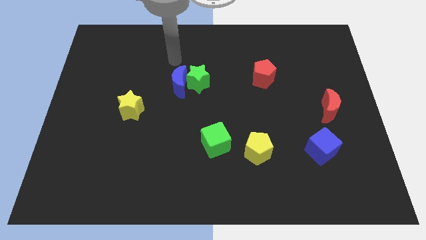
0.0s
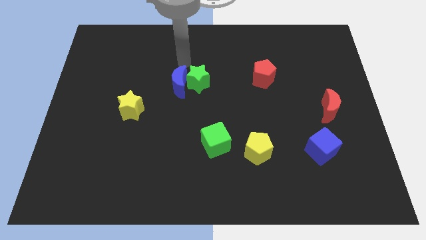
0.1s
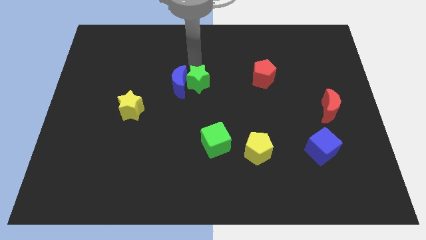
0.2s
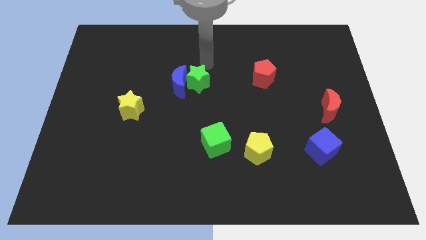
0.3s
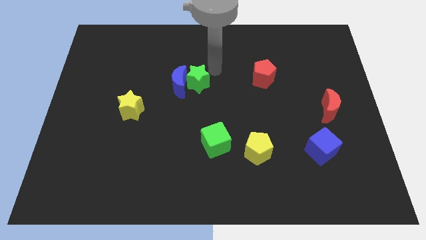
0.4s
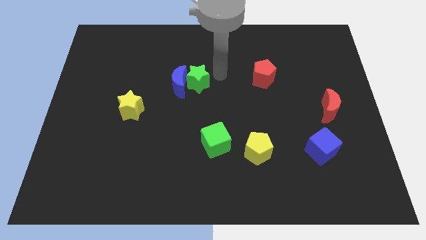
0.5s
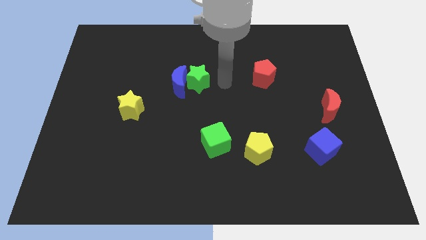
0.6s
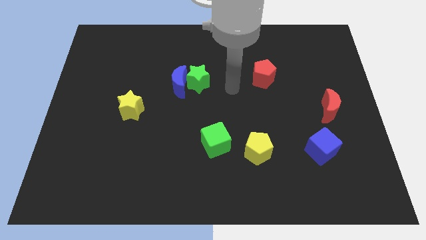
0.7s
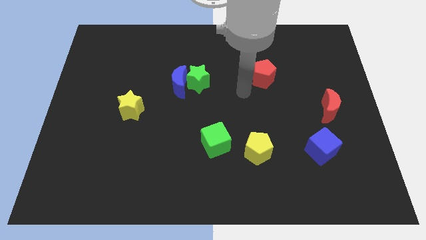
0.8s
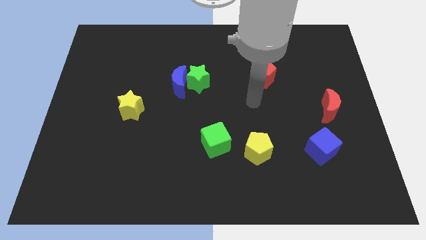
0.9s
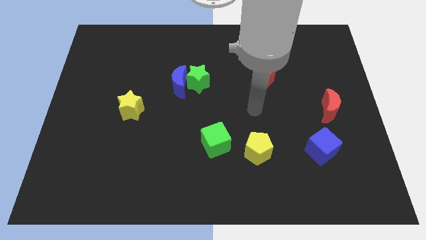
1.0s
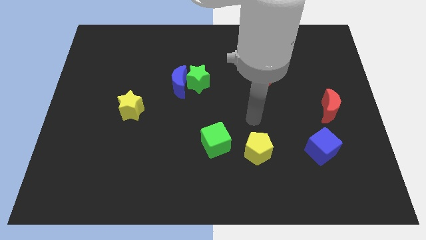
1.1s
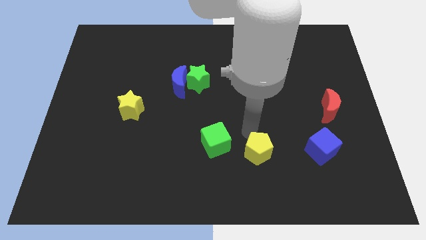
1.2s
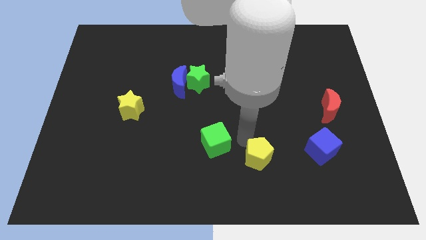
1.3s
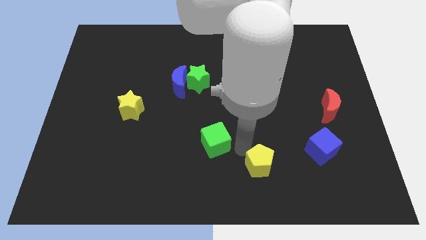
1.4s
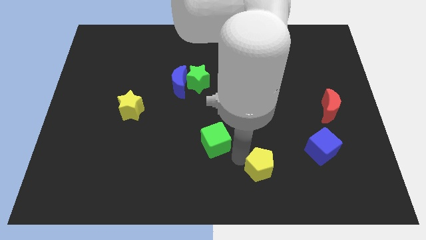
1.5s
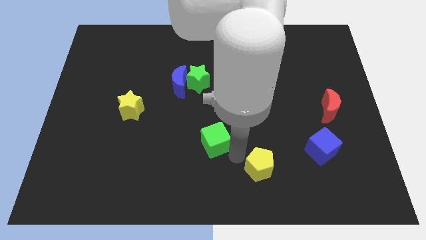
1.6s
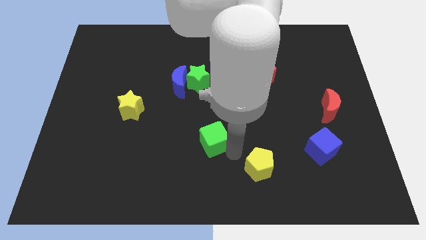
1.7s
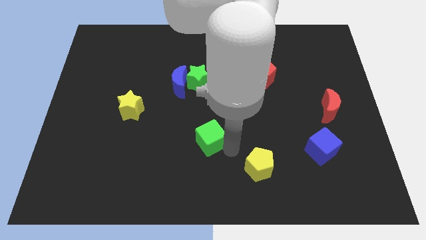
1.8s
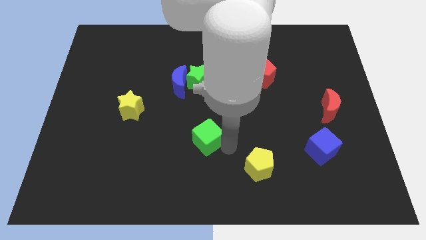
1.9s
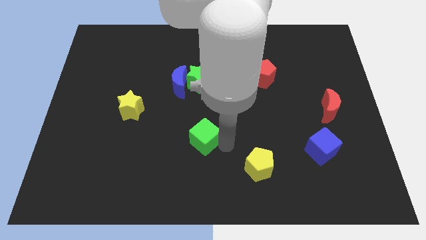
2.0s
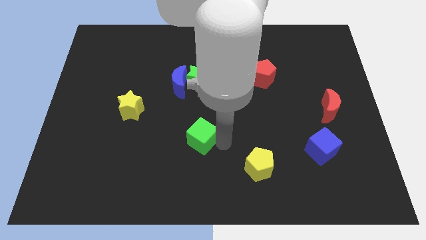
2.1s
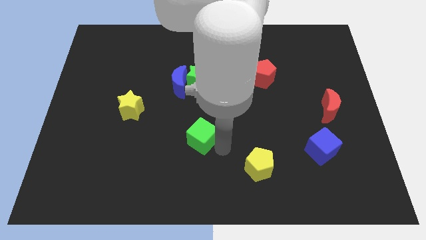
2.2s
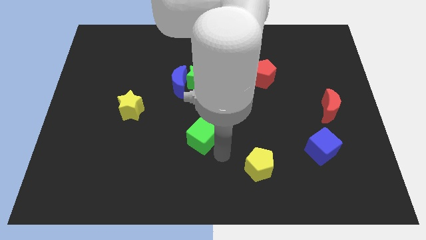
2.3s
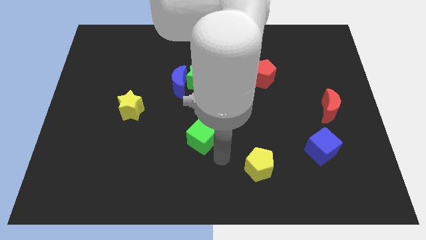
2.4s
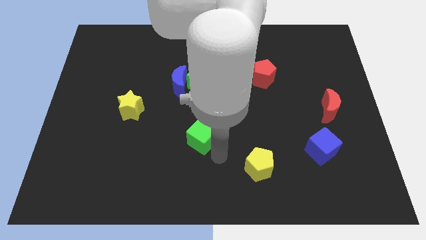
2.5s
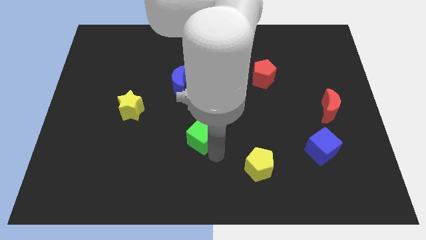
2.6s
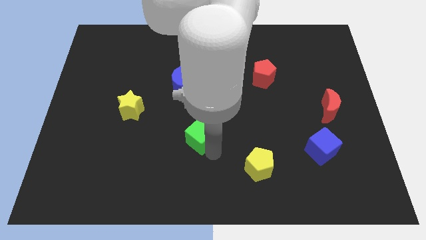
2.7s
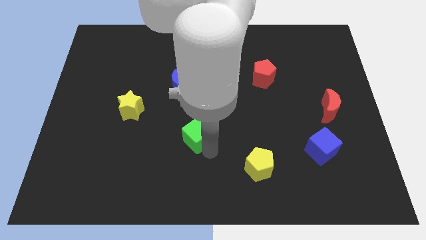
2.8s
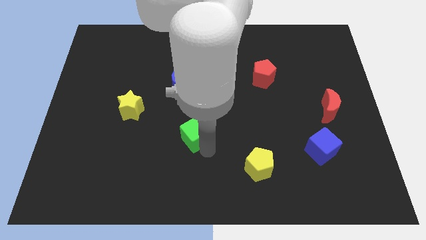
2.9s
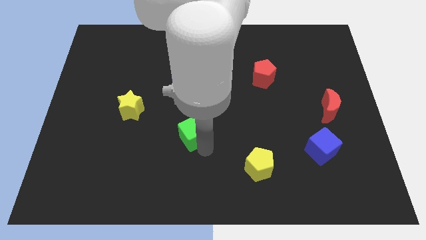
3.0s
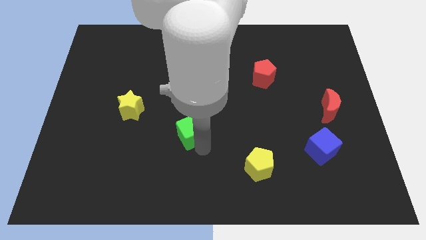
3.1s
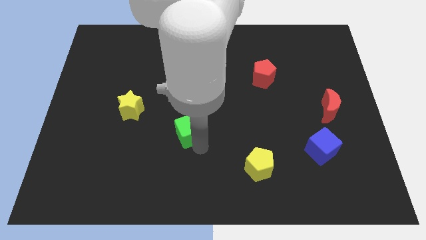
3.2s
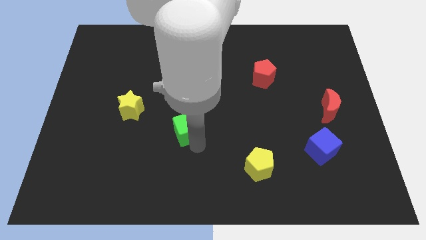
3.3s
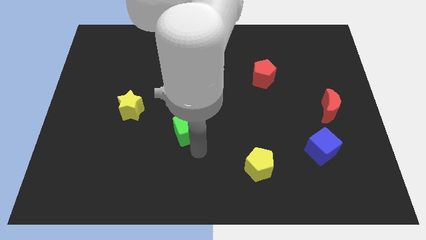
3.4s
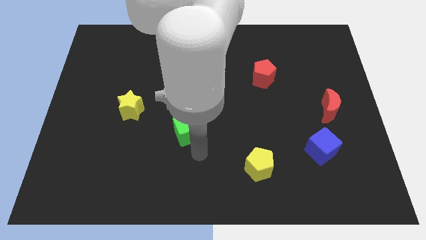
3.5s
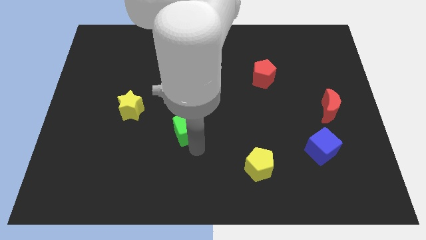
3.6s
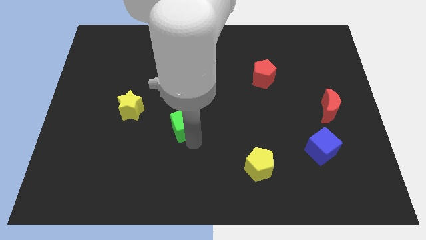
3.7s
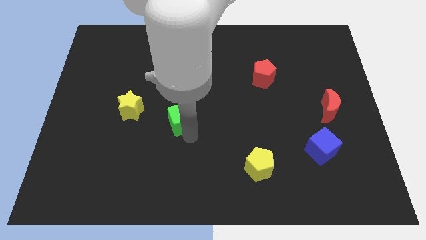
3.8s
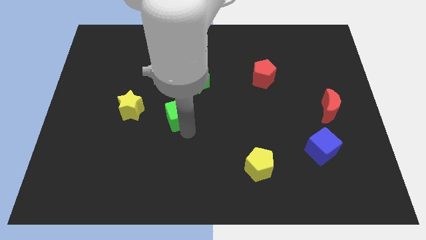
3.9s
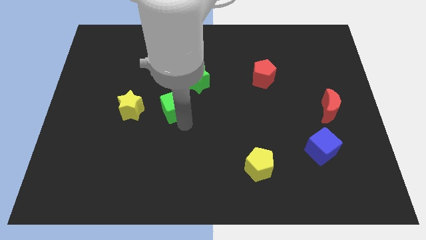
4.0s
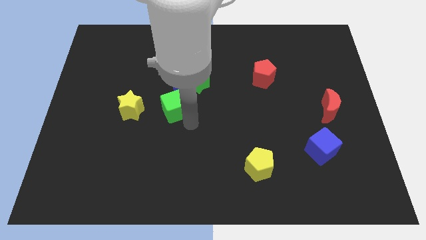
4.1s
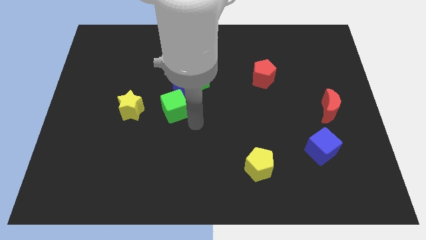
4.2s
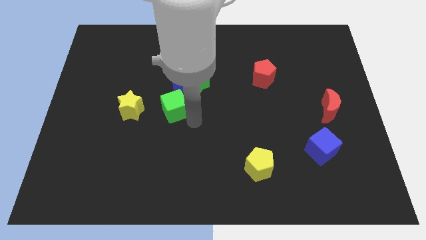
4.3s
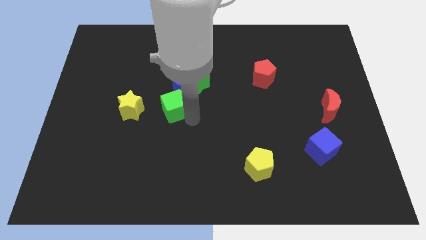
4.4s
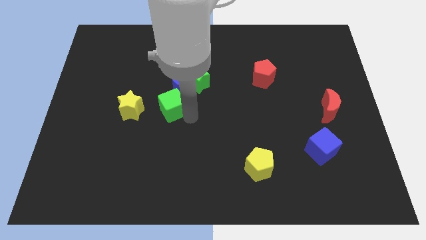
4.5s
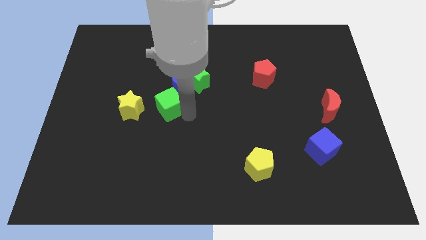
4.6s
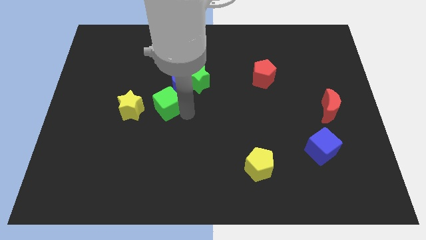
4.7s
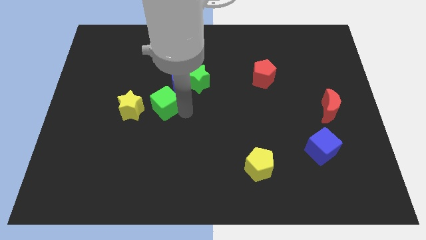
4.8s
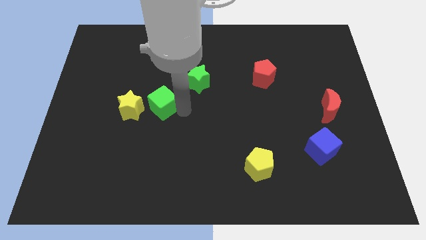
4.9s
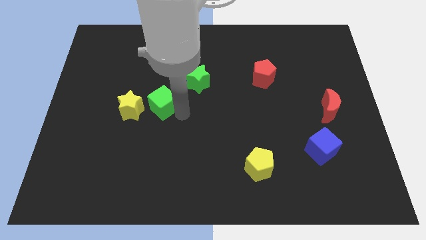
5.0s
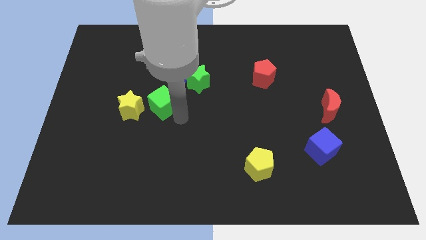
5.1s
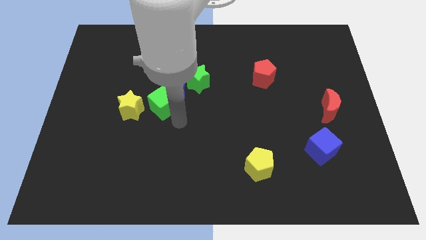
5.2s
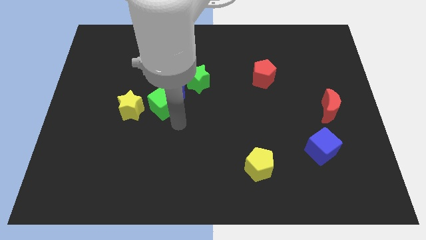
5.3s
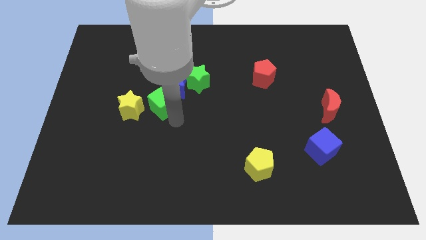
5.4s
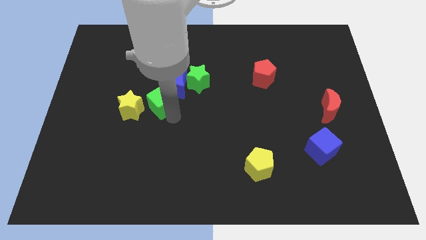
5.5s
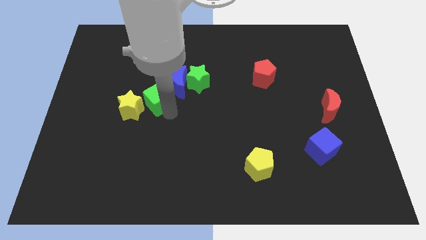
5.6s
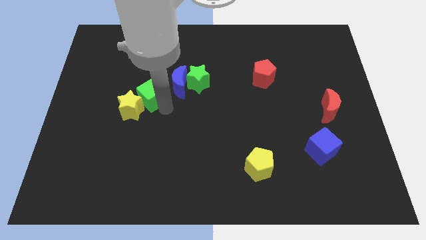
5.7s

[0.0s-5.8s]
push the green cube diagonally upwards and to the left

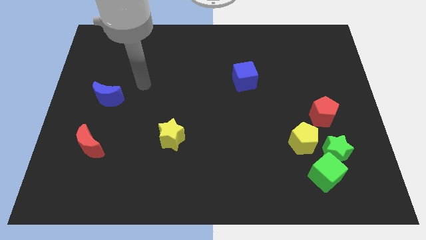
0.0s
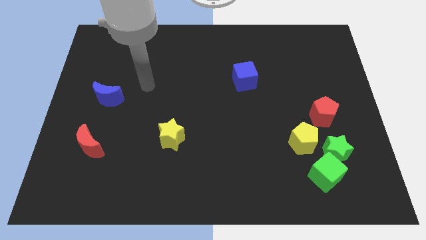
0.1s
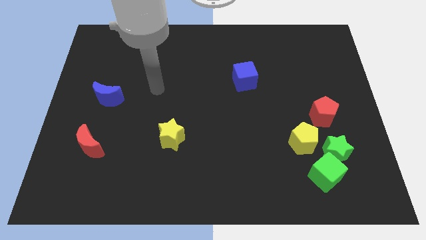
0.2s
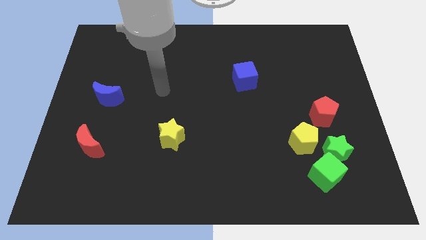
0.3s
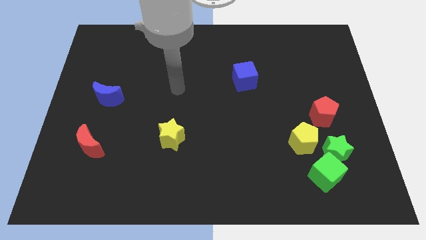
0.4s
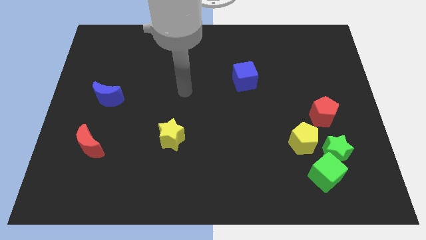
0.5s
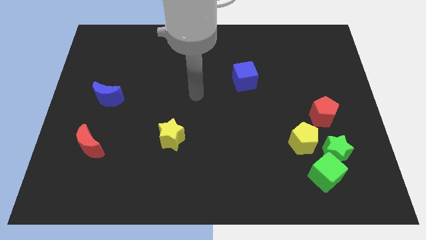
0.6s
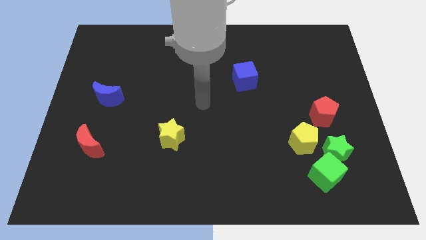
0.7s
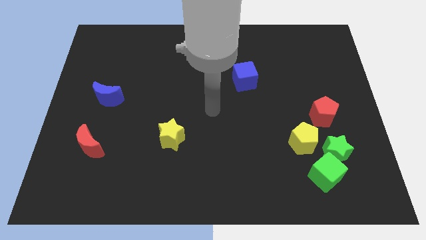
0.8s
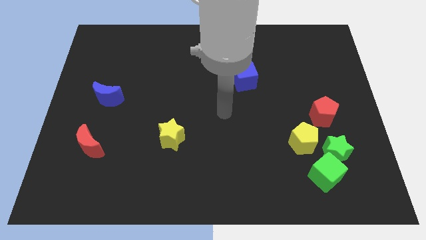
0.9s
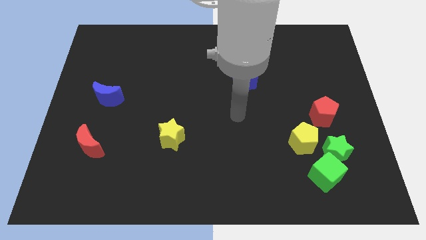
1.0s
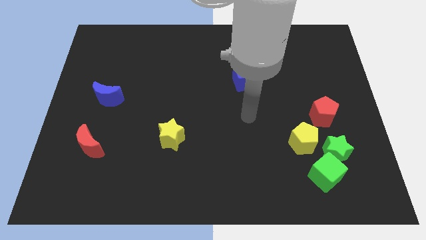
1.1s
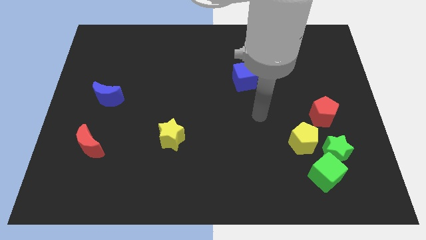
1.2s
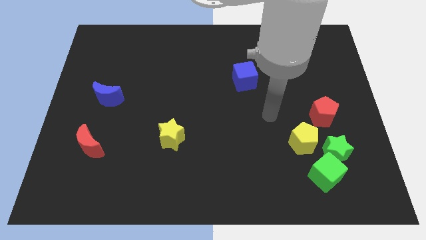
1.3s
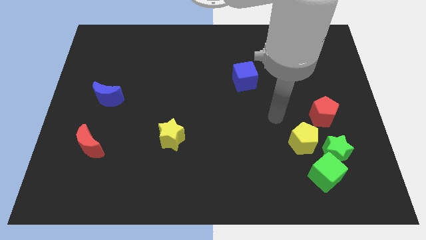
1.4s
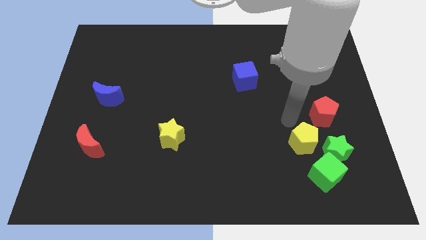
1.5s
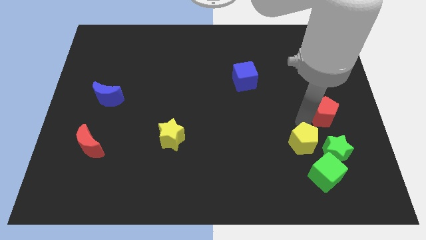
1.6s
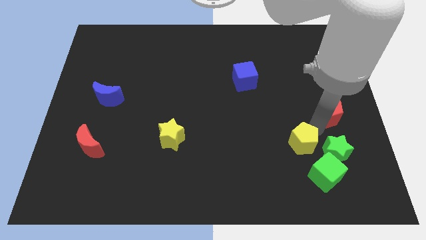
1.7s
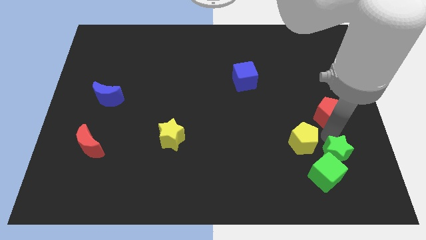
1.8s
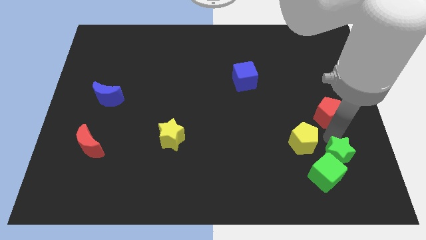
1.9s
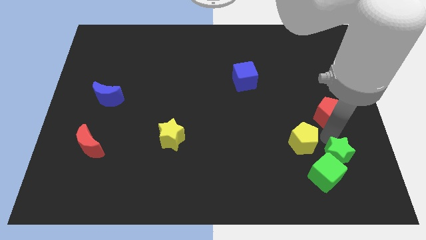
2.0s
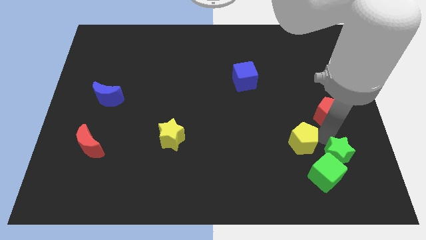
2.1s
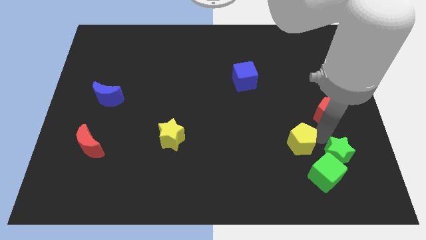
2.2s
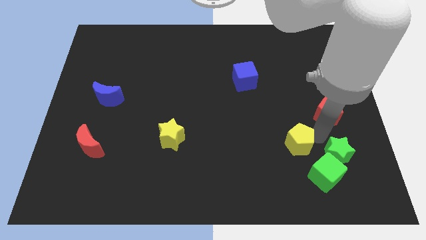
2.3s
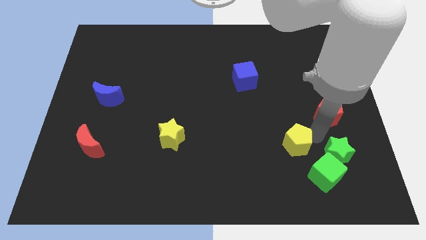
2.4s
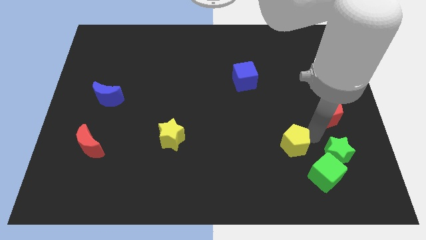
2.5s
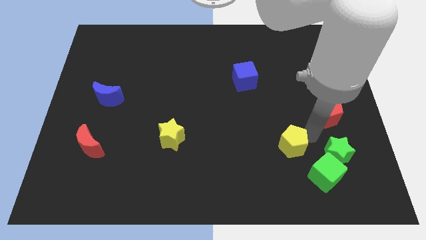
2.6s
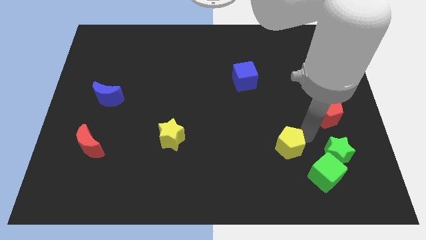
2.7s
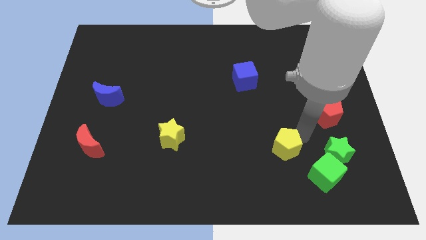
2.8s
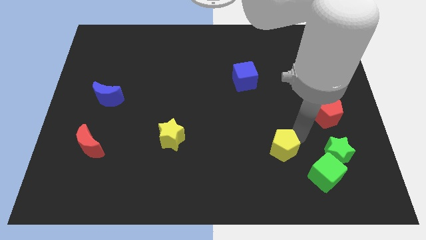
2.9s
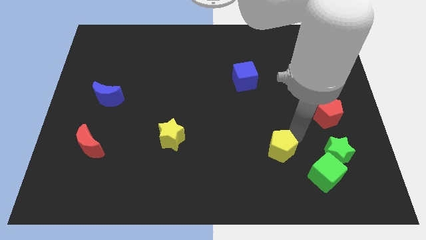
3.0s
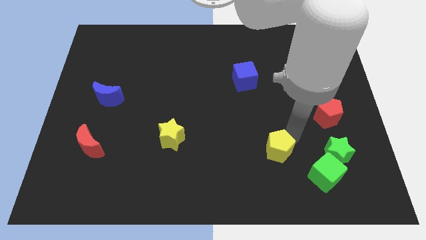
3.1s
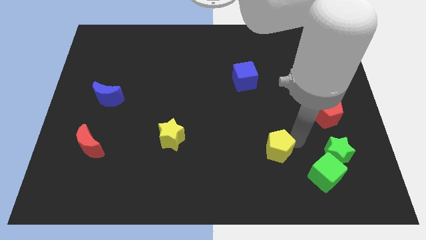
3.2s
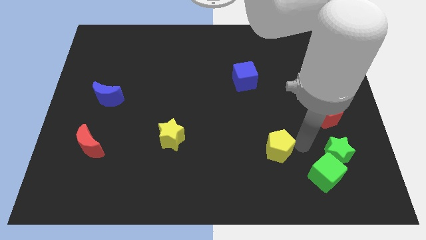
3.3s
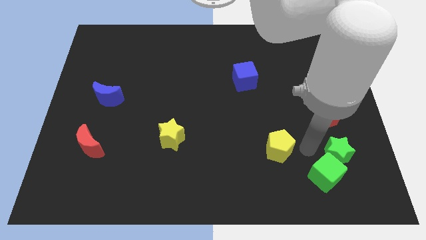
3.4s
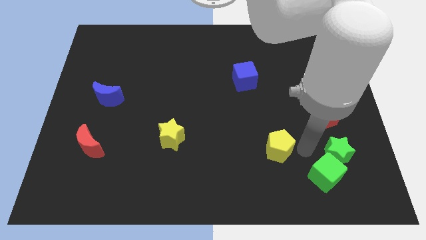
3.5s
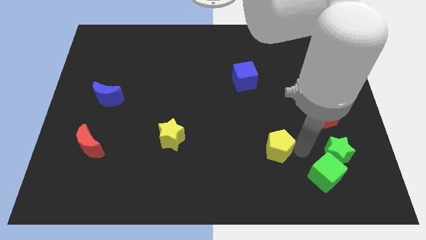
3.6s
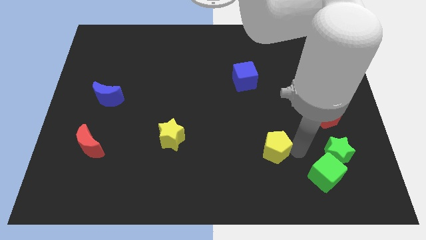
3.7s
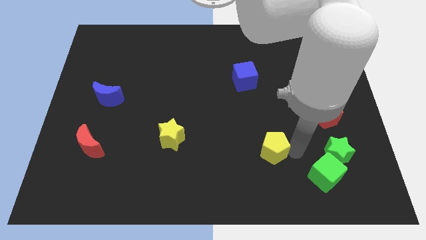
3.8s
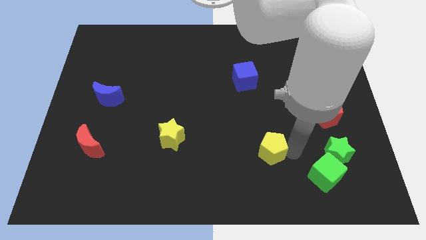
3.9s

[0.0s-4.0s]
move the yellow pentagon left a little
